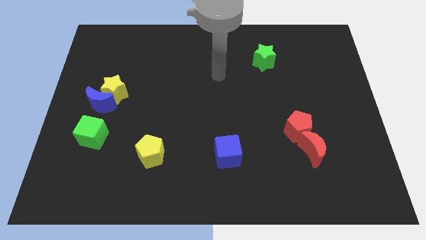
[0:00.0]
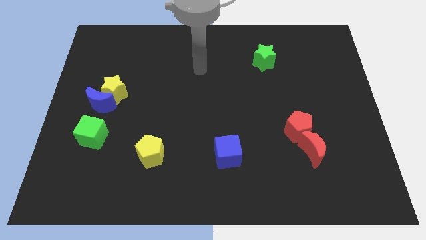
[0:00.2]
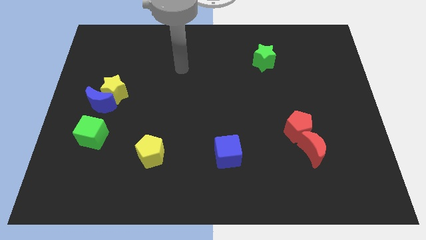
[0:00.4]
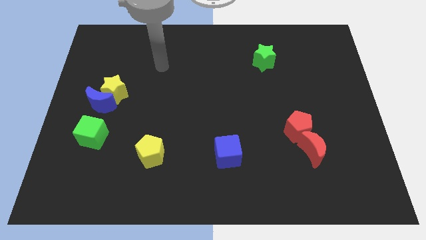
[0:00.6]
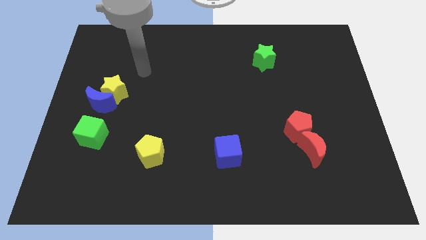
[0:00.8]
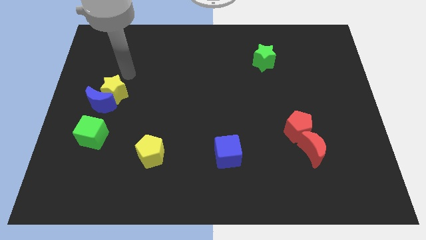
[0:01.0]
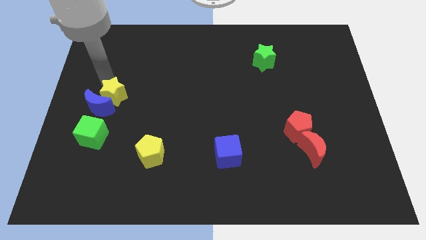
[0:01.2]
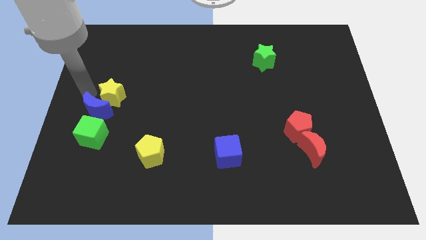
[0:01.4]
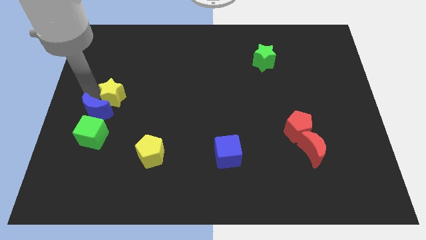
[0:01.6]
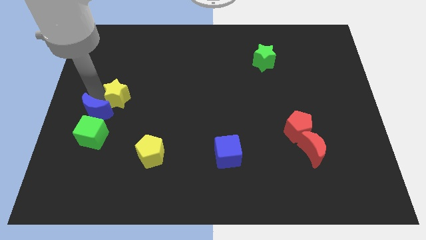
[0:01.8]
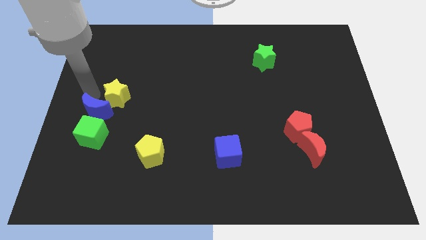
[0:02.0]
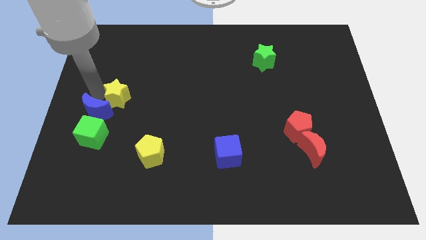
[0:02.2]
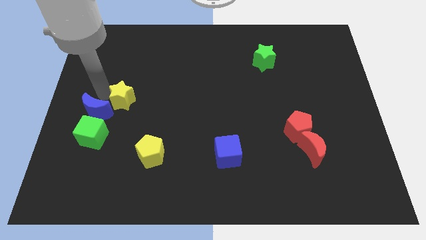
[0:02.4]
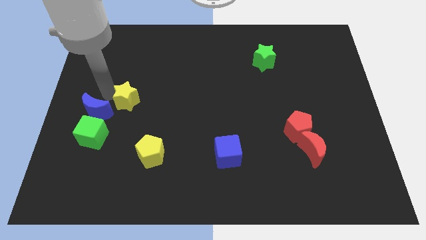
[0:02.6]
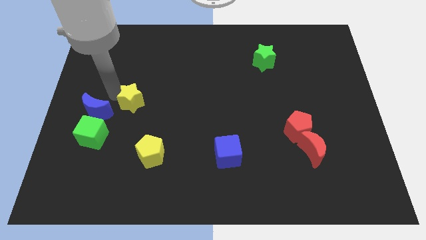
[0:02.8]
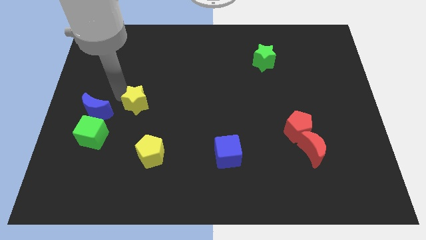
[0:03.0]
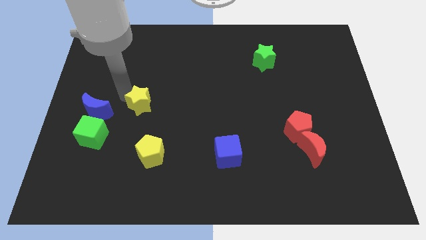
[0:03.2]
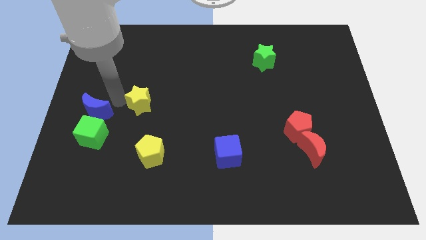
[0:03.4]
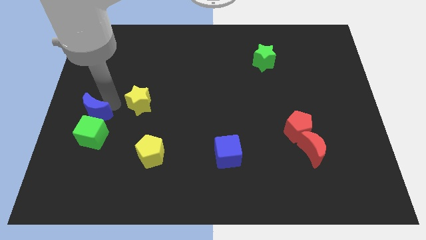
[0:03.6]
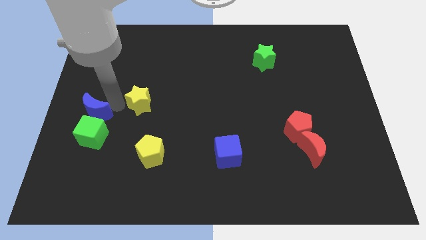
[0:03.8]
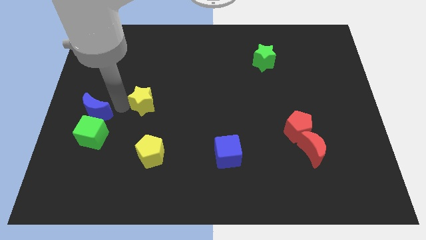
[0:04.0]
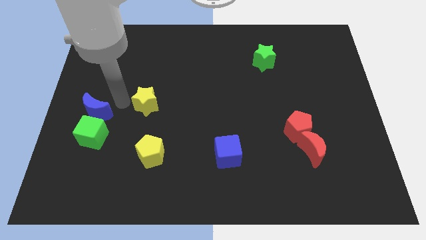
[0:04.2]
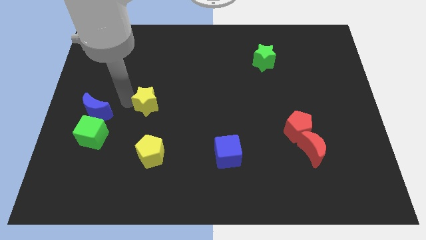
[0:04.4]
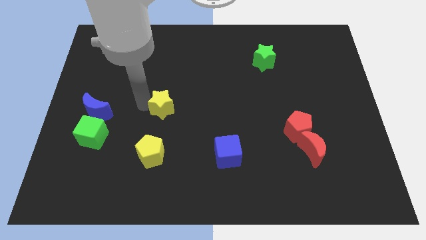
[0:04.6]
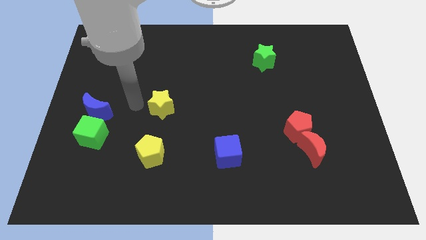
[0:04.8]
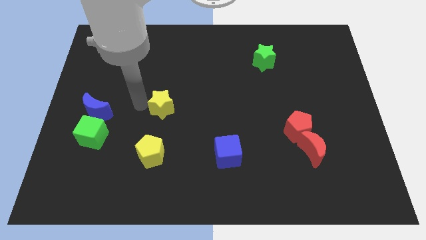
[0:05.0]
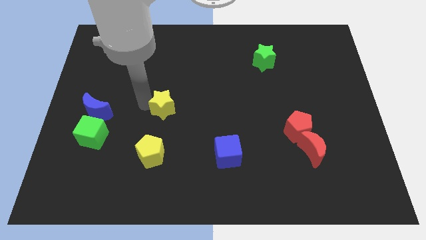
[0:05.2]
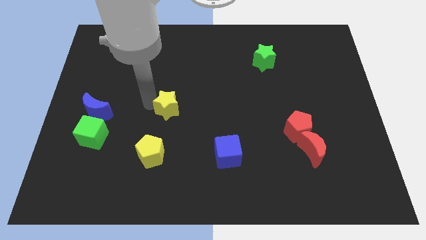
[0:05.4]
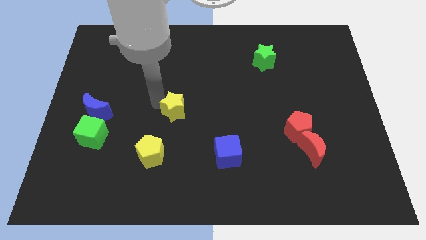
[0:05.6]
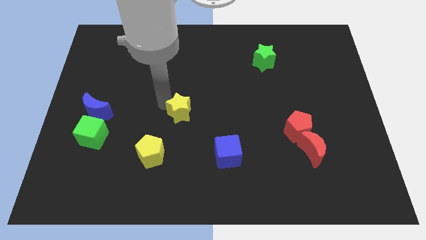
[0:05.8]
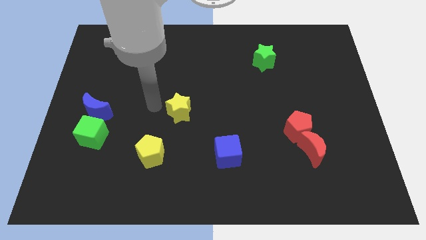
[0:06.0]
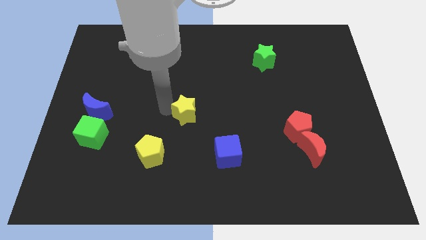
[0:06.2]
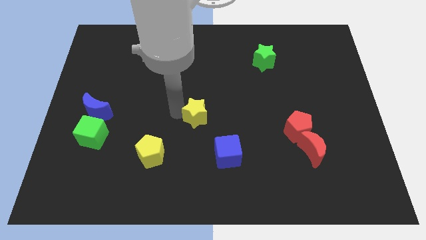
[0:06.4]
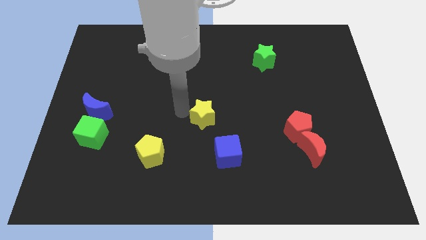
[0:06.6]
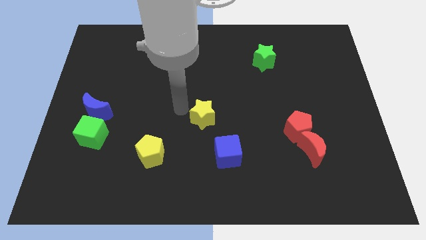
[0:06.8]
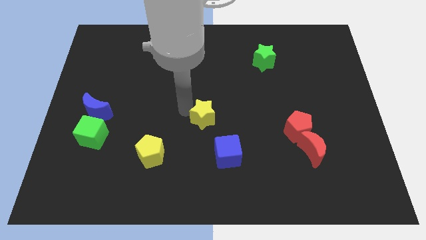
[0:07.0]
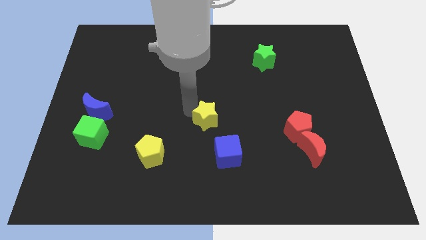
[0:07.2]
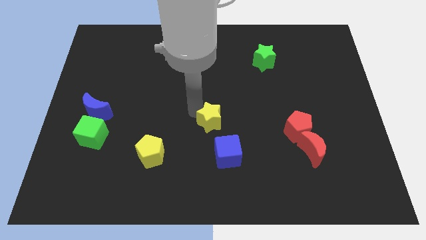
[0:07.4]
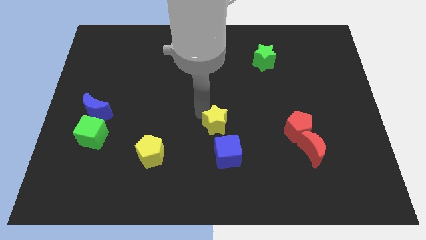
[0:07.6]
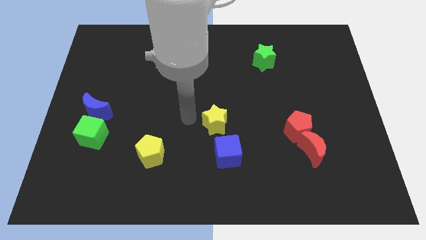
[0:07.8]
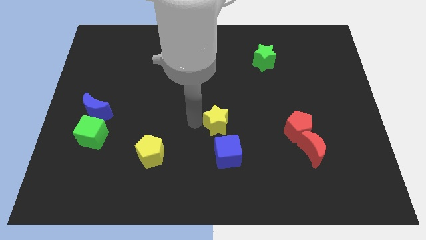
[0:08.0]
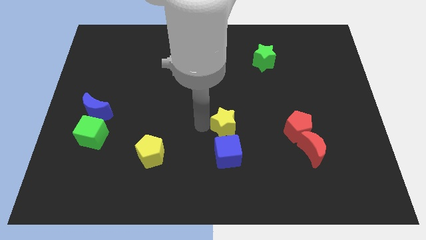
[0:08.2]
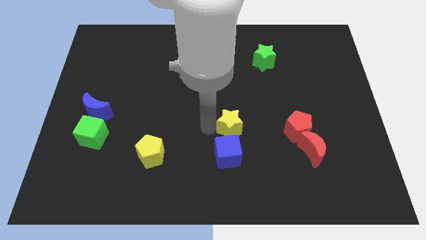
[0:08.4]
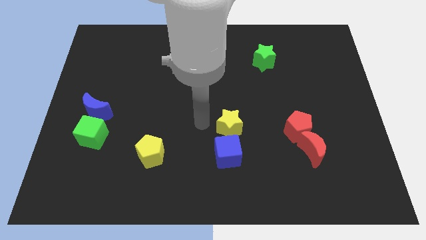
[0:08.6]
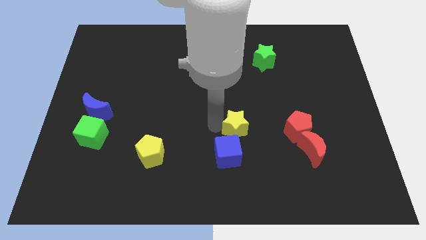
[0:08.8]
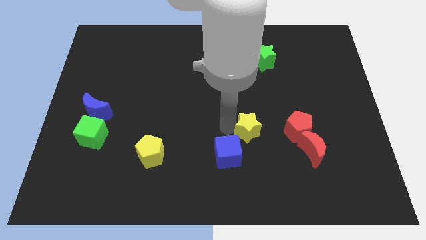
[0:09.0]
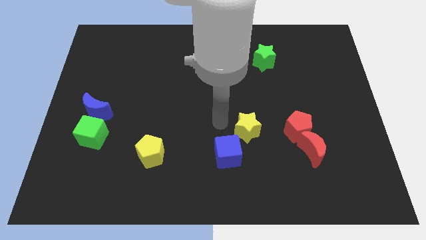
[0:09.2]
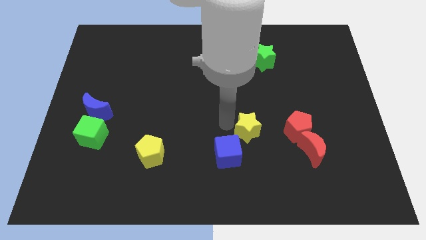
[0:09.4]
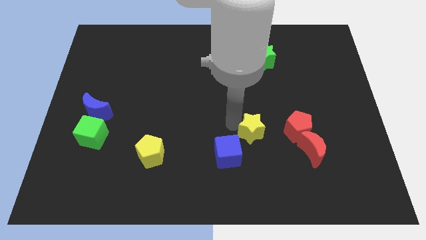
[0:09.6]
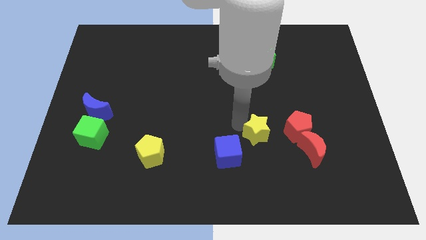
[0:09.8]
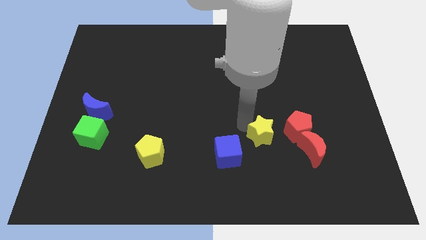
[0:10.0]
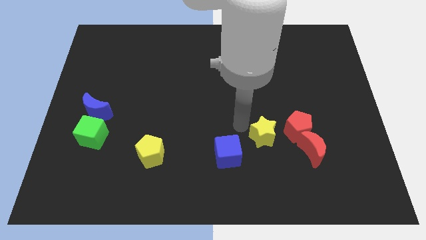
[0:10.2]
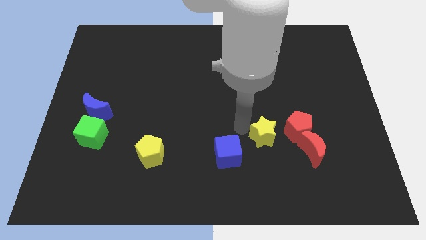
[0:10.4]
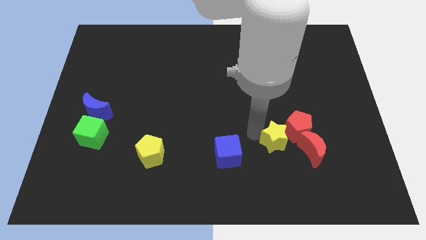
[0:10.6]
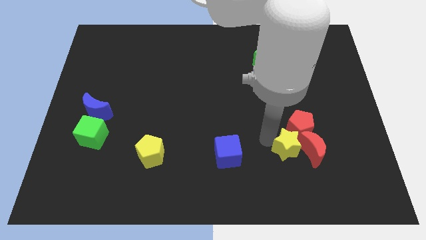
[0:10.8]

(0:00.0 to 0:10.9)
slide the yellow star to the red moon

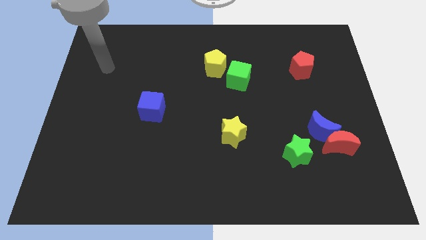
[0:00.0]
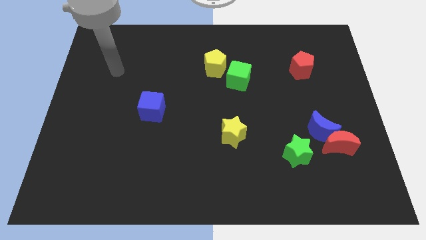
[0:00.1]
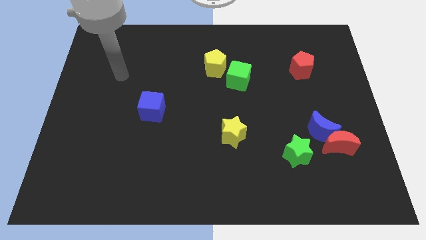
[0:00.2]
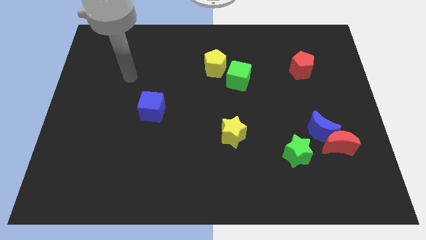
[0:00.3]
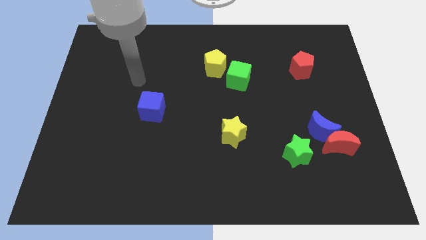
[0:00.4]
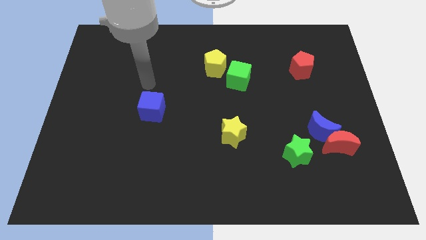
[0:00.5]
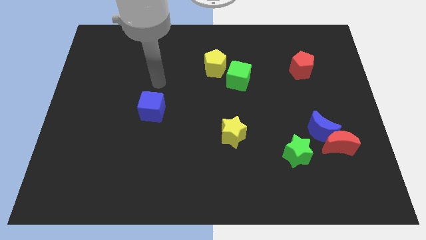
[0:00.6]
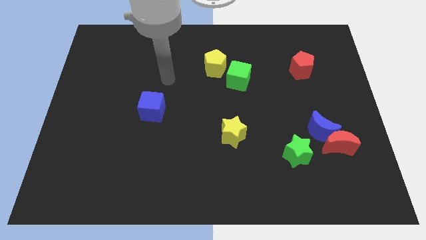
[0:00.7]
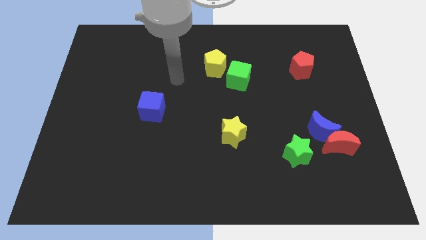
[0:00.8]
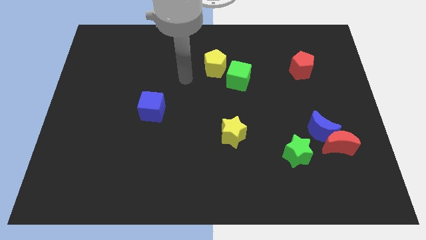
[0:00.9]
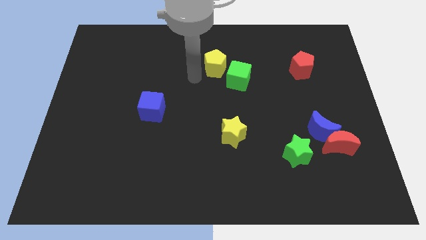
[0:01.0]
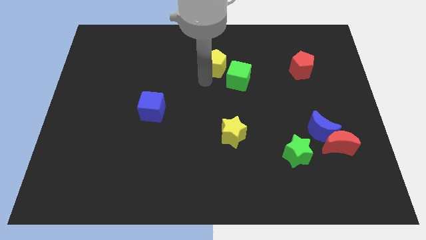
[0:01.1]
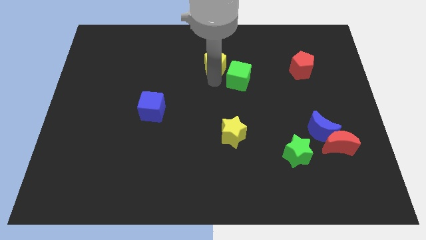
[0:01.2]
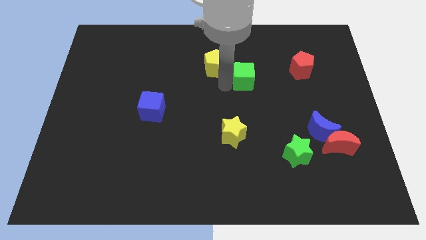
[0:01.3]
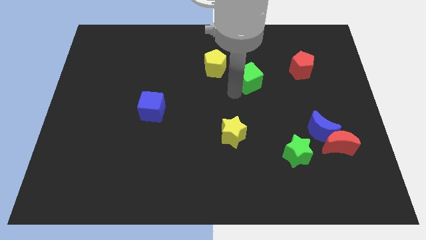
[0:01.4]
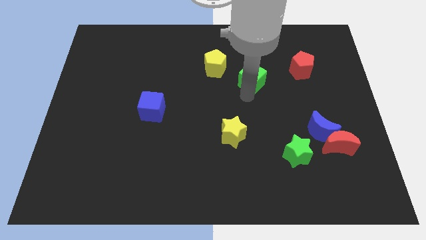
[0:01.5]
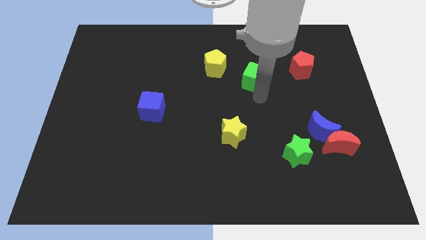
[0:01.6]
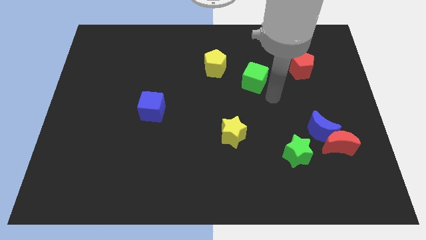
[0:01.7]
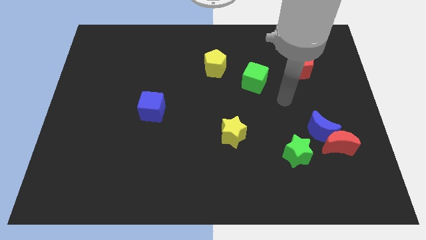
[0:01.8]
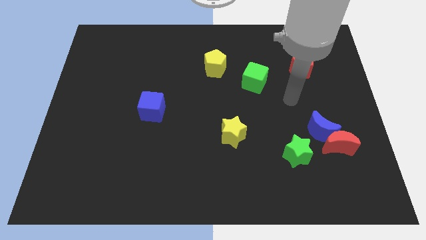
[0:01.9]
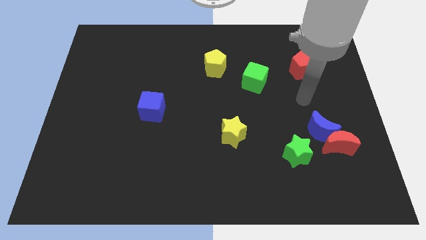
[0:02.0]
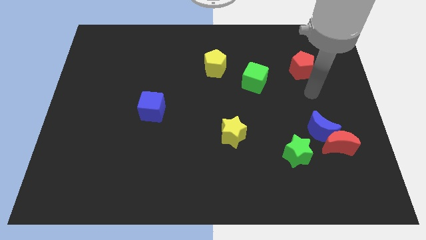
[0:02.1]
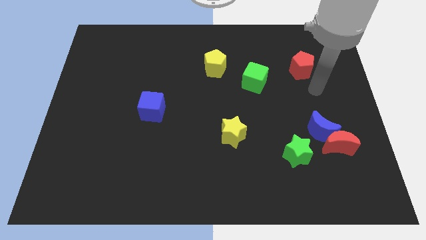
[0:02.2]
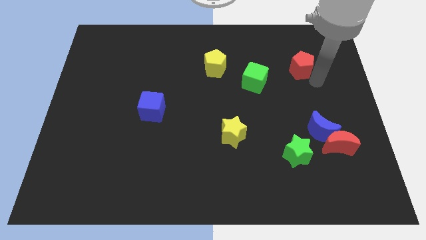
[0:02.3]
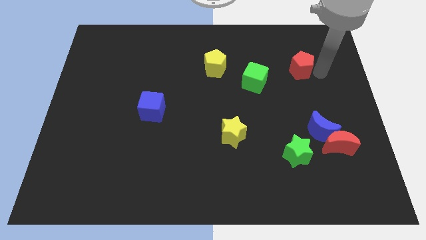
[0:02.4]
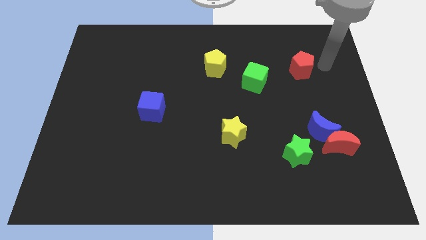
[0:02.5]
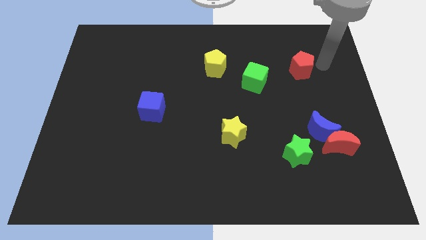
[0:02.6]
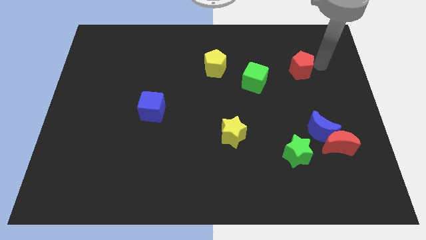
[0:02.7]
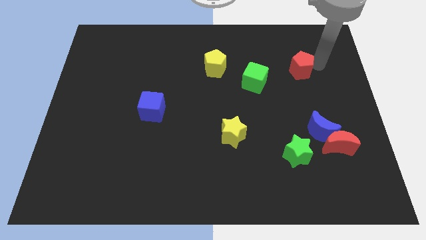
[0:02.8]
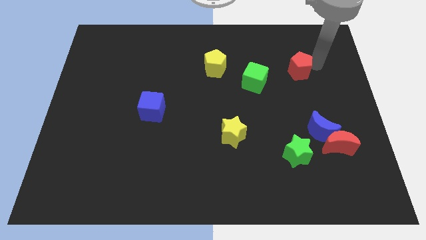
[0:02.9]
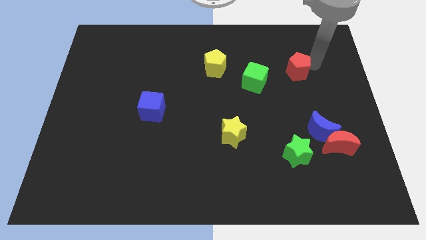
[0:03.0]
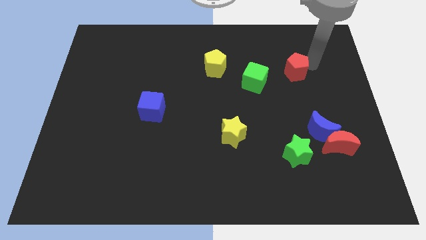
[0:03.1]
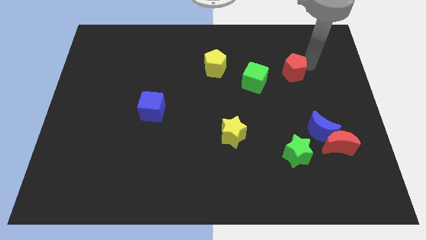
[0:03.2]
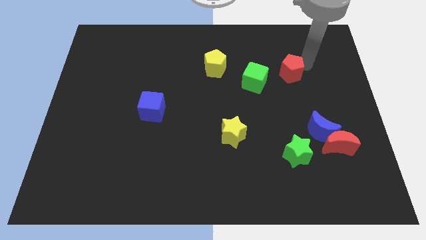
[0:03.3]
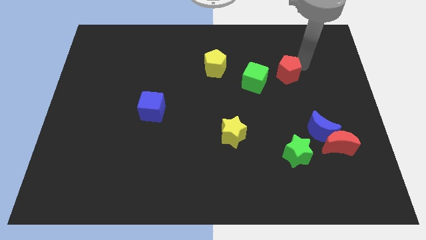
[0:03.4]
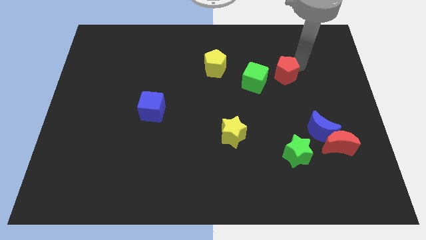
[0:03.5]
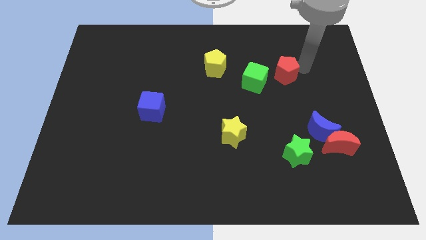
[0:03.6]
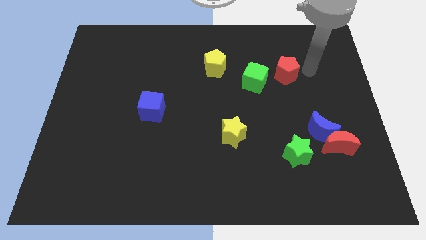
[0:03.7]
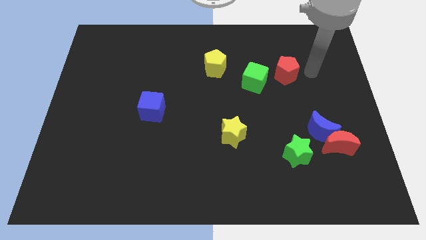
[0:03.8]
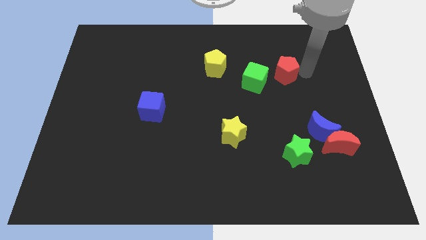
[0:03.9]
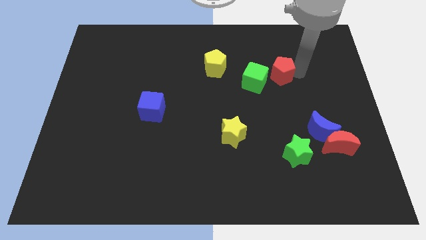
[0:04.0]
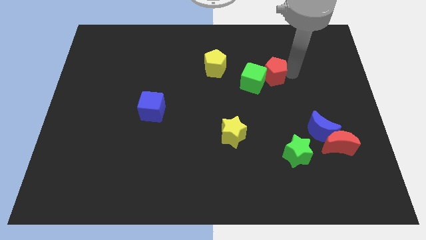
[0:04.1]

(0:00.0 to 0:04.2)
slide the red pentagon close to the green cube
